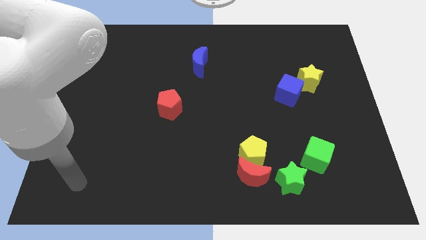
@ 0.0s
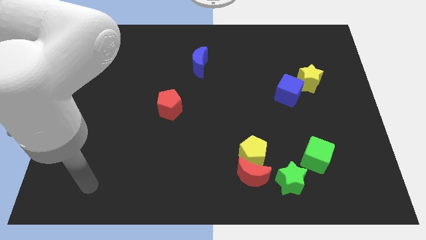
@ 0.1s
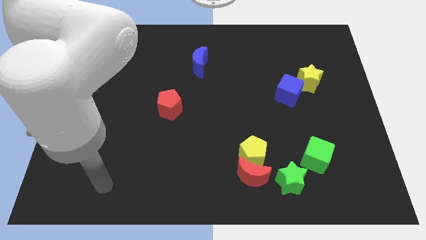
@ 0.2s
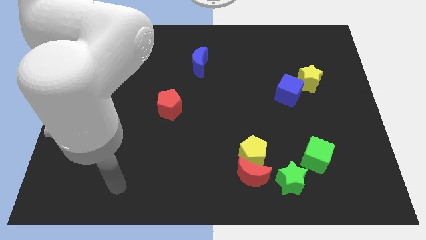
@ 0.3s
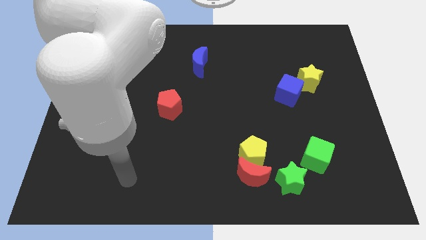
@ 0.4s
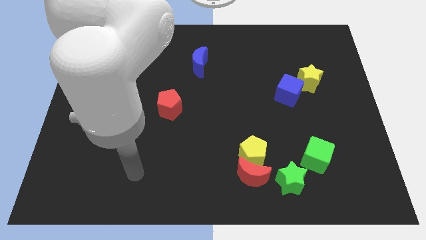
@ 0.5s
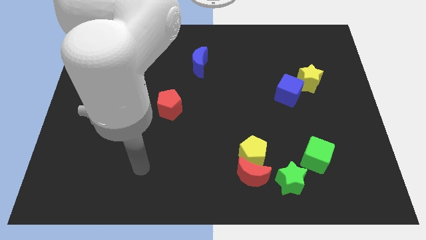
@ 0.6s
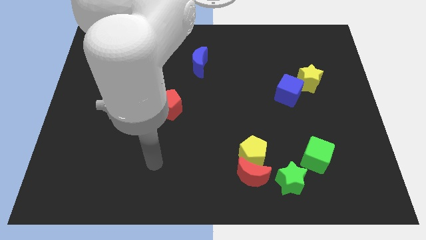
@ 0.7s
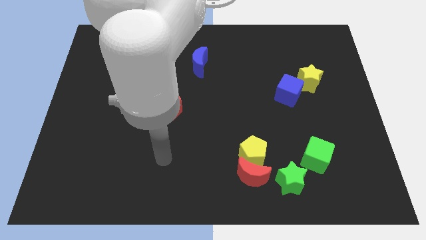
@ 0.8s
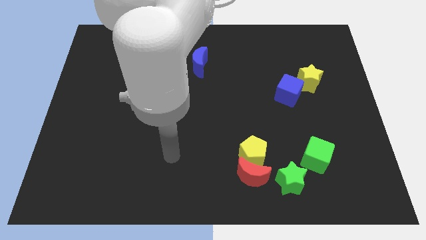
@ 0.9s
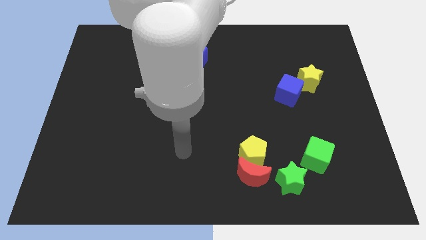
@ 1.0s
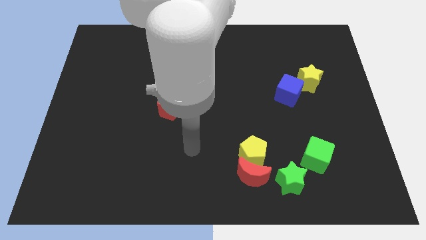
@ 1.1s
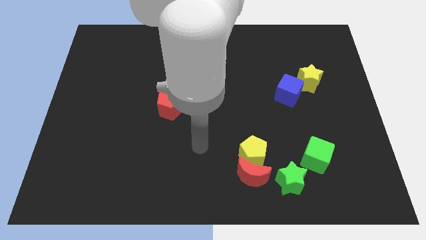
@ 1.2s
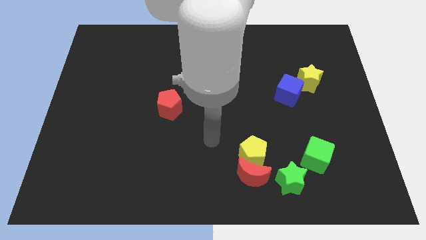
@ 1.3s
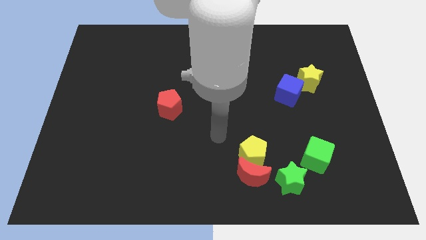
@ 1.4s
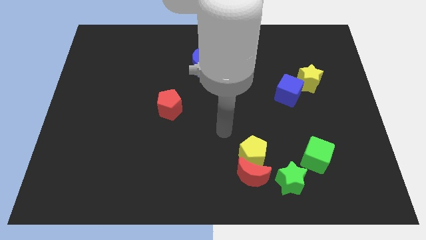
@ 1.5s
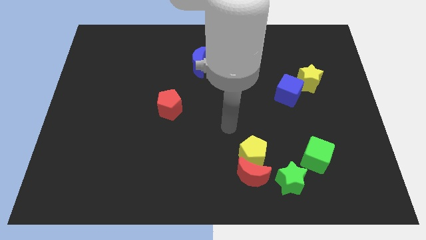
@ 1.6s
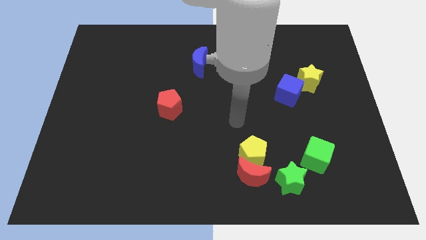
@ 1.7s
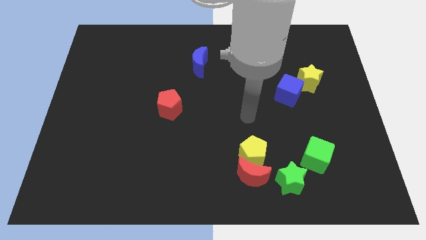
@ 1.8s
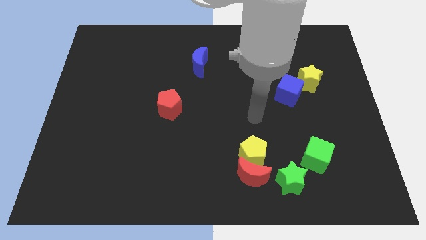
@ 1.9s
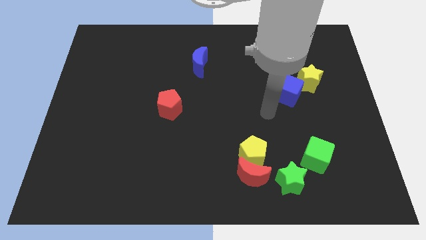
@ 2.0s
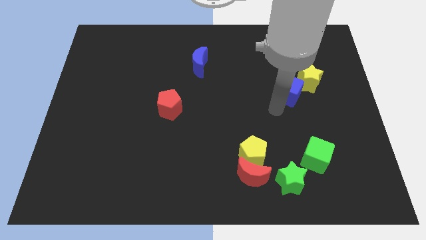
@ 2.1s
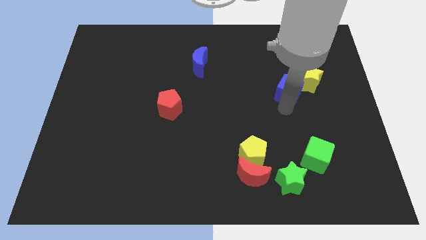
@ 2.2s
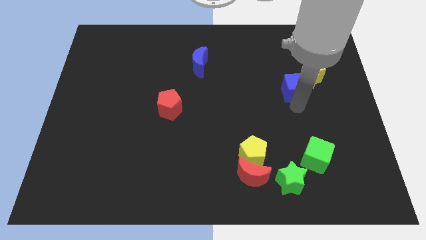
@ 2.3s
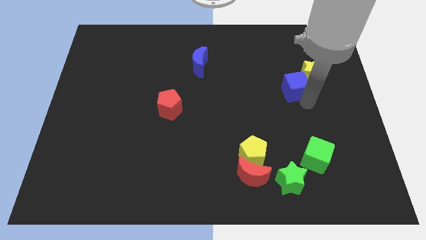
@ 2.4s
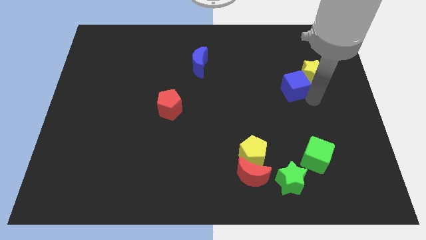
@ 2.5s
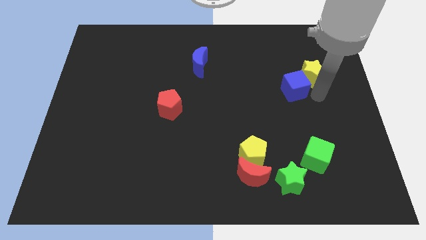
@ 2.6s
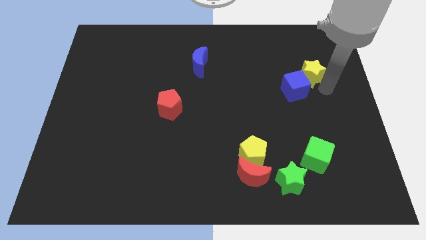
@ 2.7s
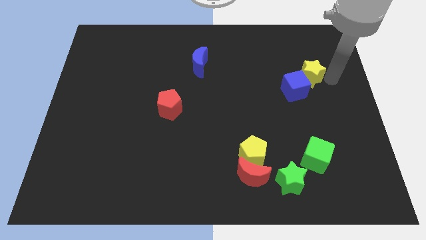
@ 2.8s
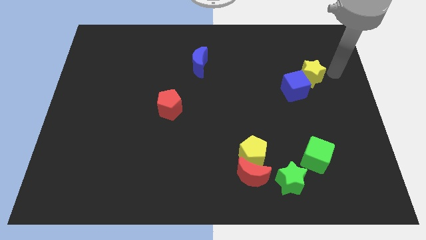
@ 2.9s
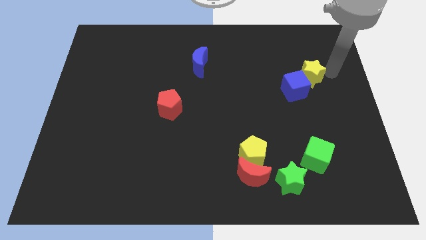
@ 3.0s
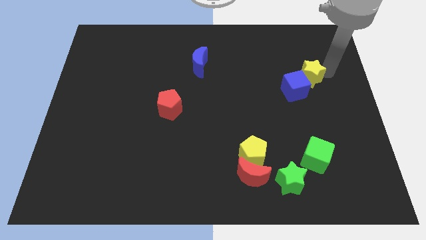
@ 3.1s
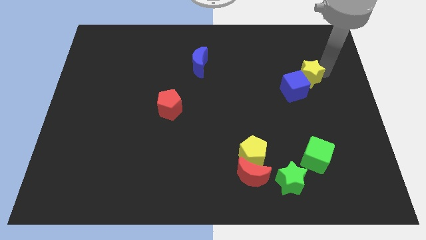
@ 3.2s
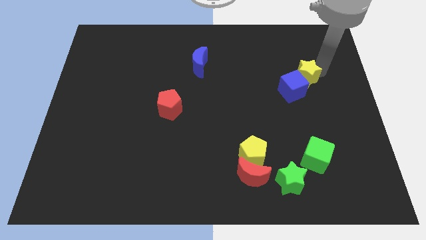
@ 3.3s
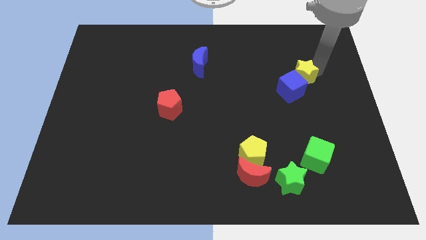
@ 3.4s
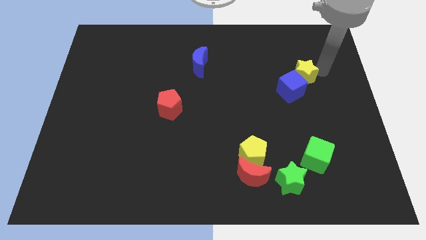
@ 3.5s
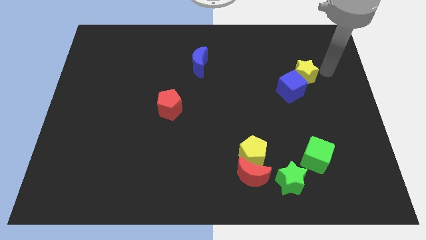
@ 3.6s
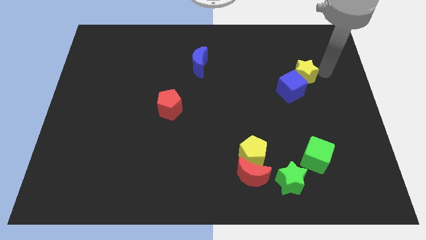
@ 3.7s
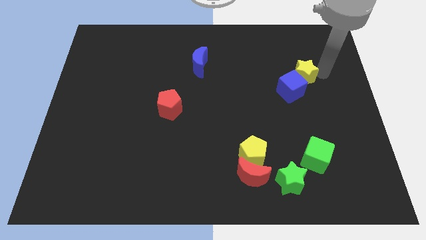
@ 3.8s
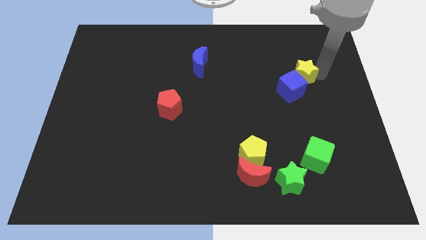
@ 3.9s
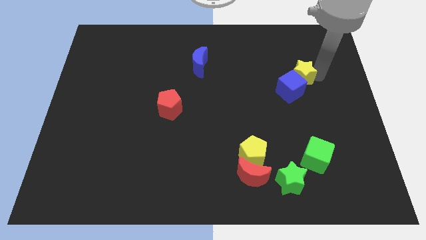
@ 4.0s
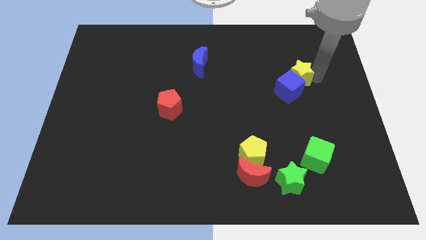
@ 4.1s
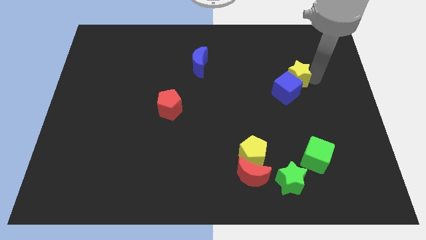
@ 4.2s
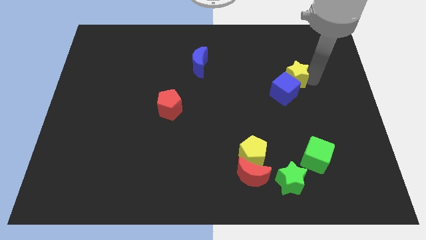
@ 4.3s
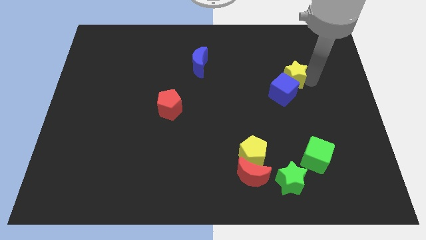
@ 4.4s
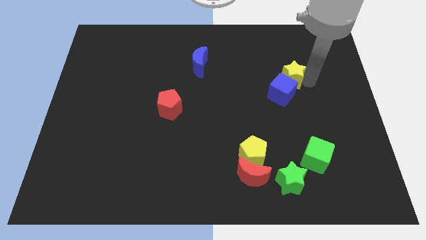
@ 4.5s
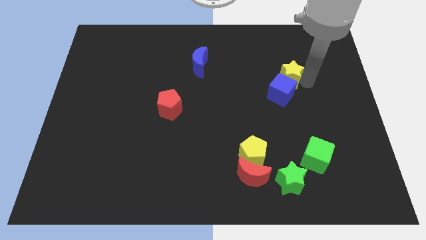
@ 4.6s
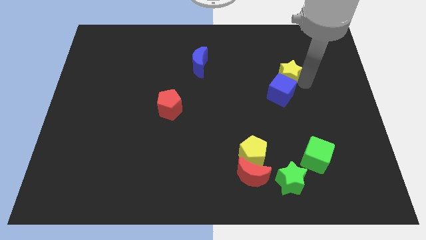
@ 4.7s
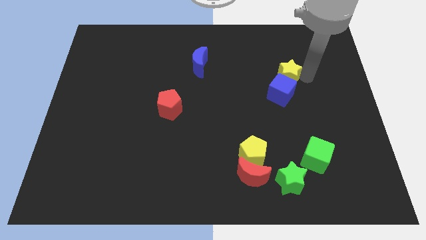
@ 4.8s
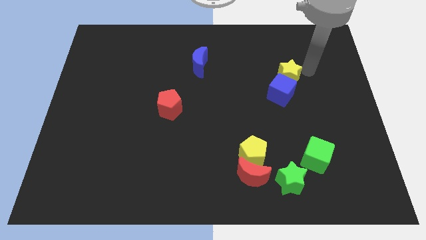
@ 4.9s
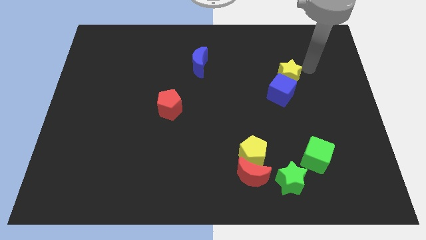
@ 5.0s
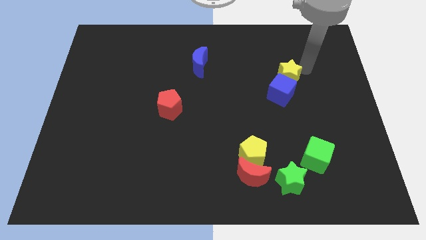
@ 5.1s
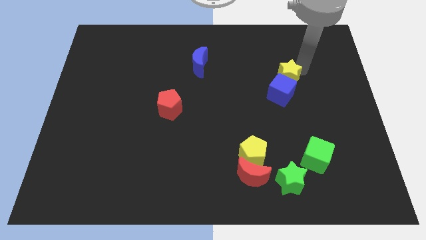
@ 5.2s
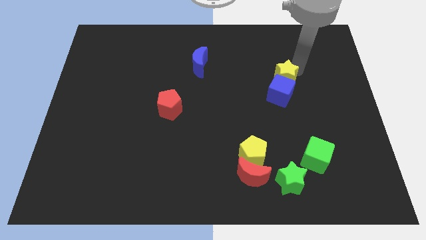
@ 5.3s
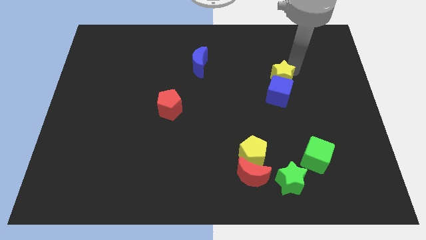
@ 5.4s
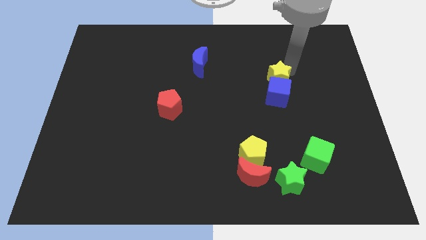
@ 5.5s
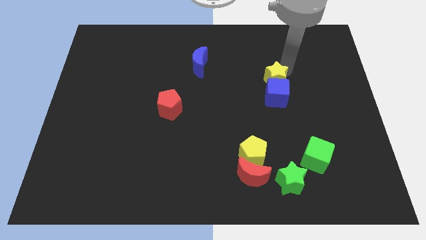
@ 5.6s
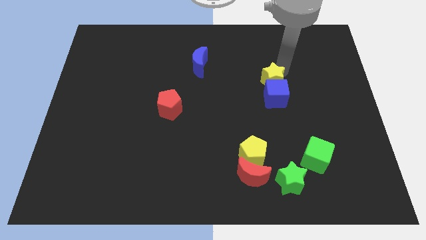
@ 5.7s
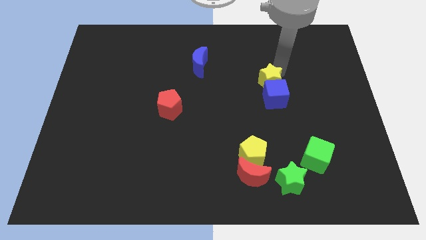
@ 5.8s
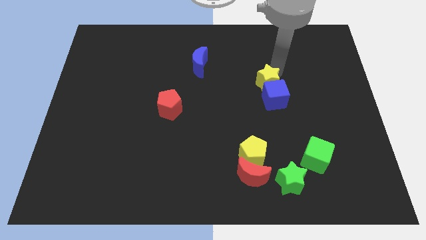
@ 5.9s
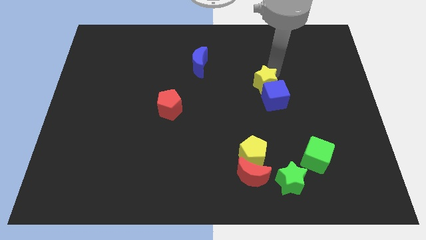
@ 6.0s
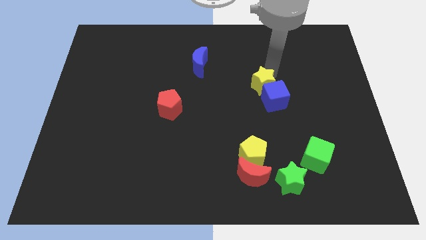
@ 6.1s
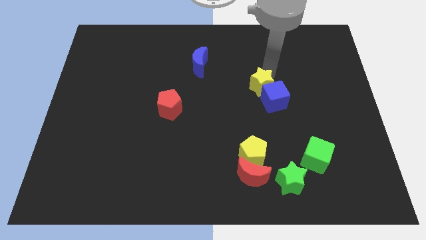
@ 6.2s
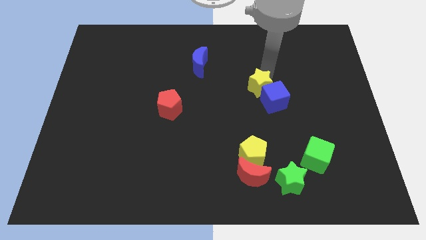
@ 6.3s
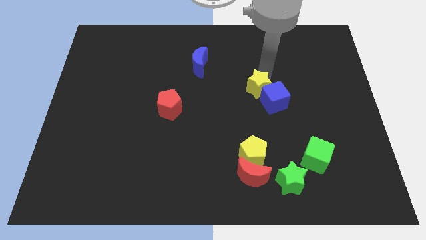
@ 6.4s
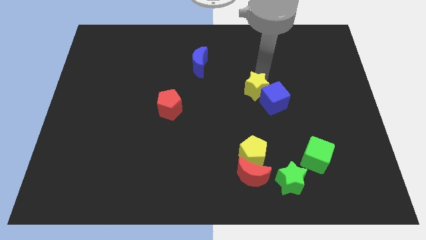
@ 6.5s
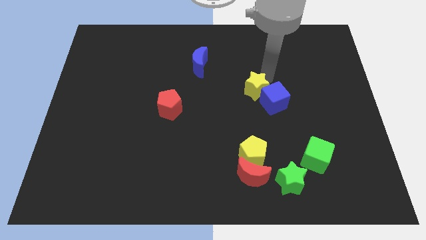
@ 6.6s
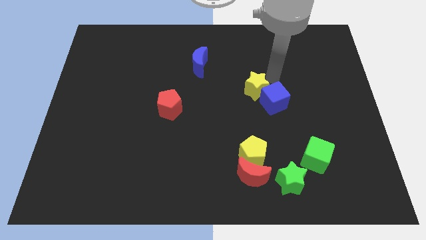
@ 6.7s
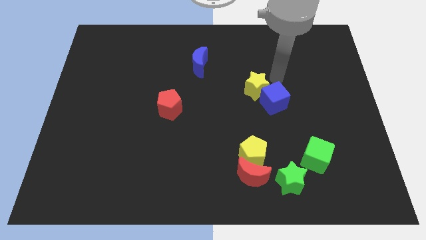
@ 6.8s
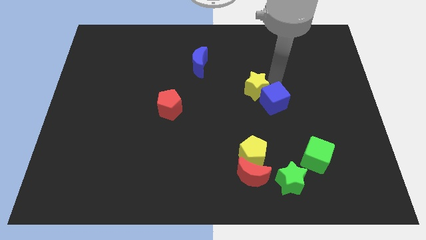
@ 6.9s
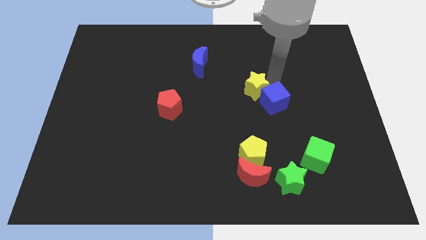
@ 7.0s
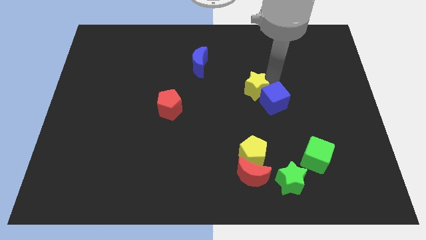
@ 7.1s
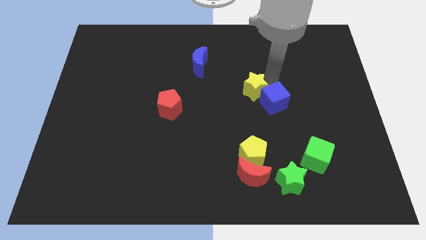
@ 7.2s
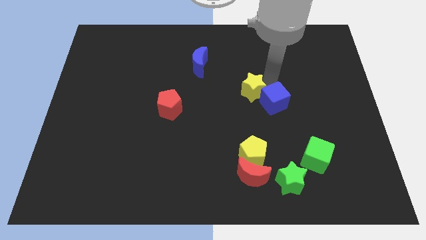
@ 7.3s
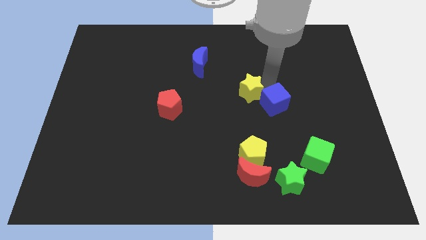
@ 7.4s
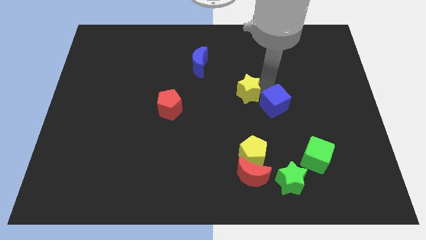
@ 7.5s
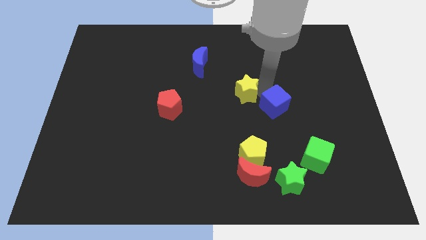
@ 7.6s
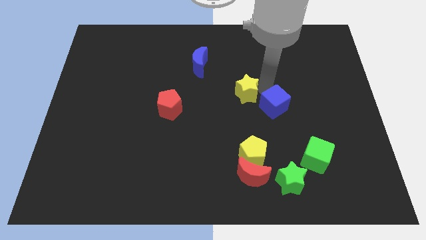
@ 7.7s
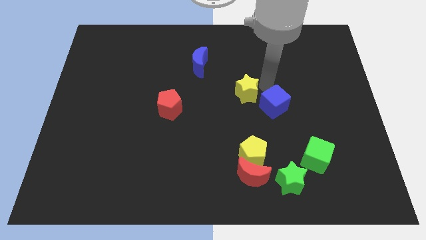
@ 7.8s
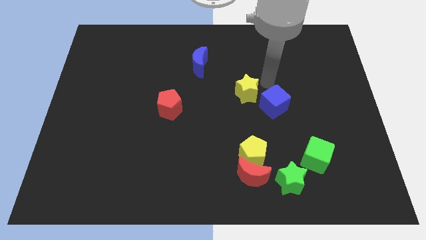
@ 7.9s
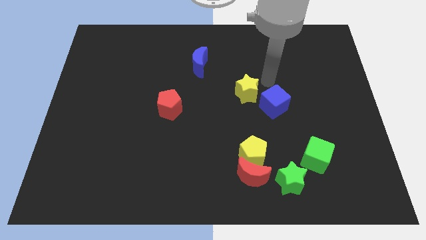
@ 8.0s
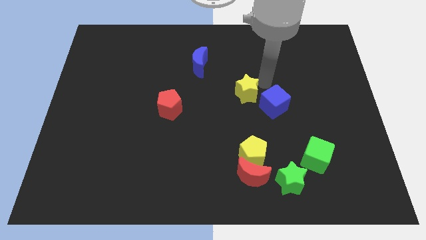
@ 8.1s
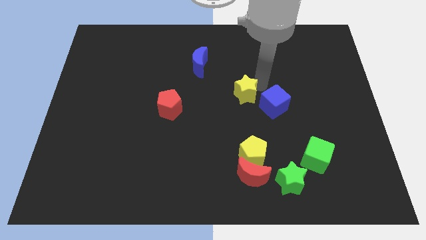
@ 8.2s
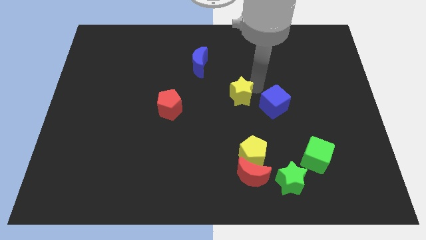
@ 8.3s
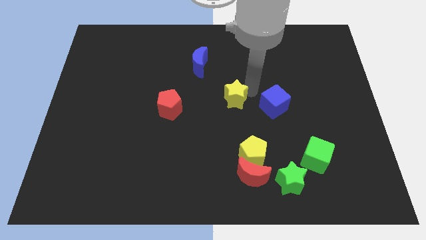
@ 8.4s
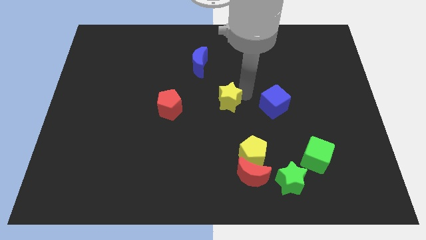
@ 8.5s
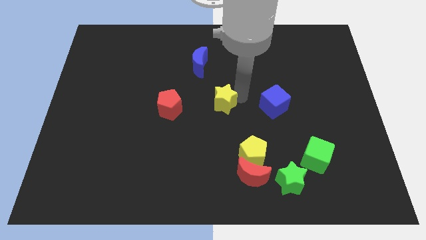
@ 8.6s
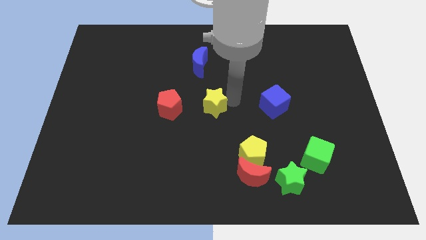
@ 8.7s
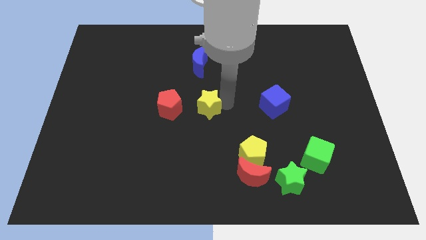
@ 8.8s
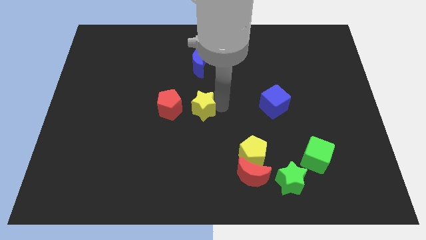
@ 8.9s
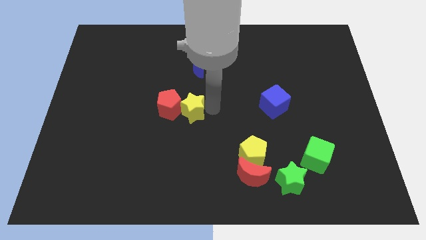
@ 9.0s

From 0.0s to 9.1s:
push the yellow star to the red pentagon
